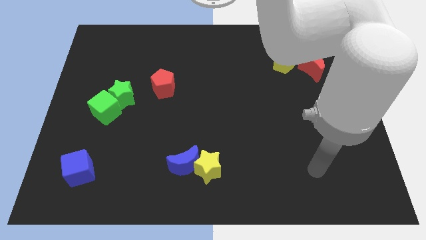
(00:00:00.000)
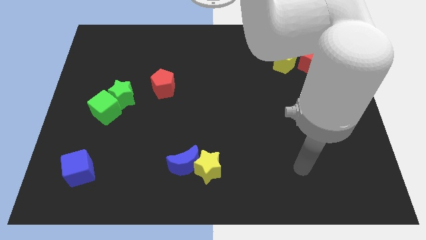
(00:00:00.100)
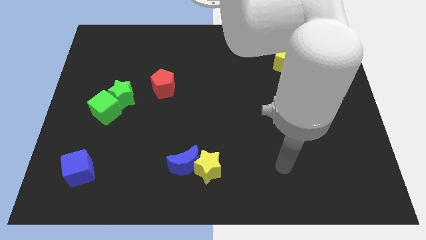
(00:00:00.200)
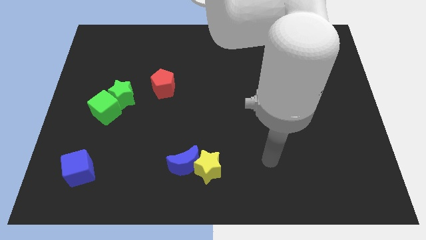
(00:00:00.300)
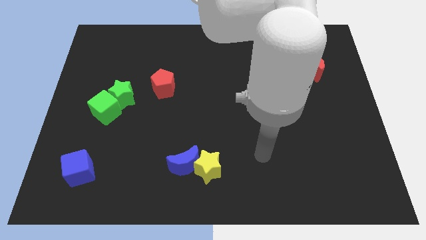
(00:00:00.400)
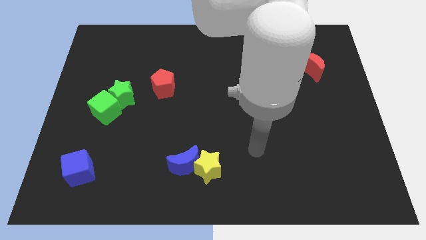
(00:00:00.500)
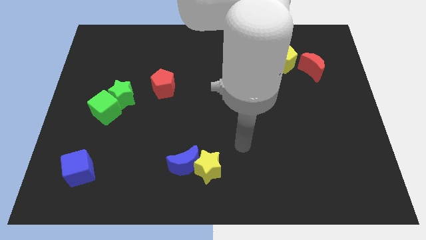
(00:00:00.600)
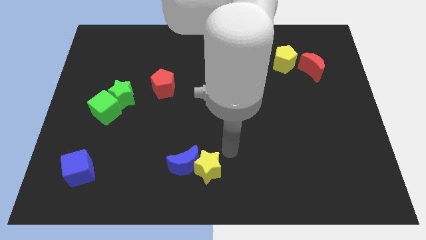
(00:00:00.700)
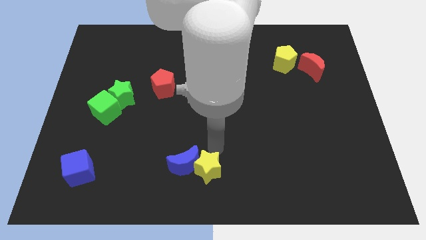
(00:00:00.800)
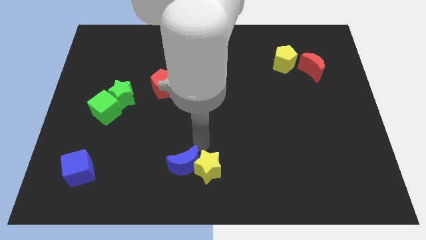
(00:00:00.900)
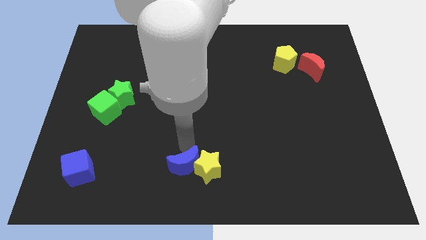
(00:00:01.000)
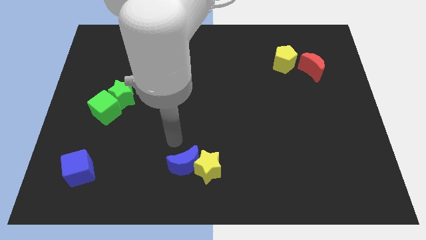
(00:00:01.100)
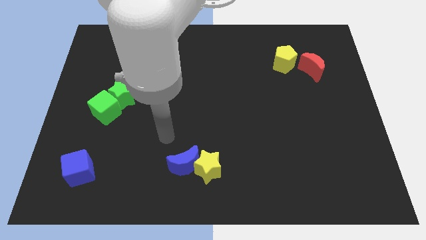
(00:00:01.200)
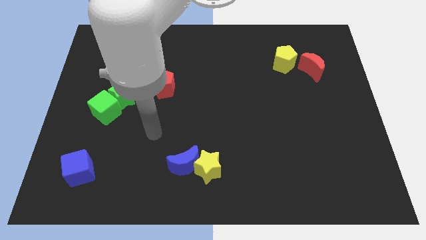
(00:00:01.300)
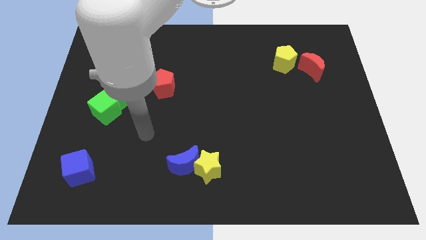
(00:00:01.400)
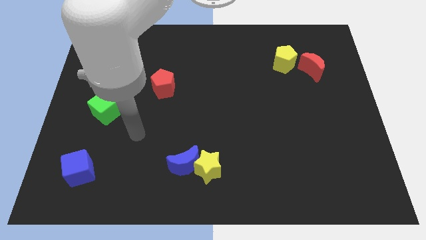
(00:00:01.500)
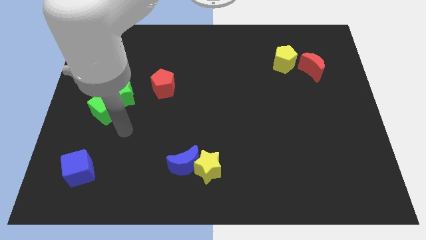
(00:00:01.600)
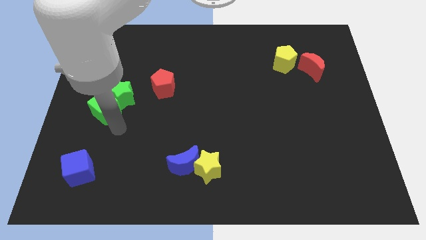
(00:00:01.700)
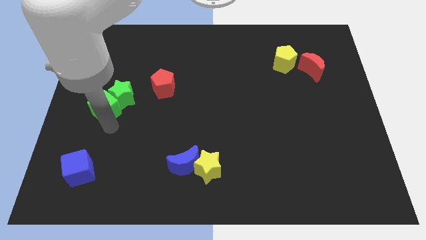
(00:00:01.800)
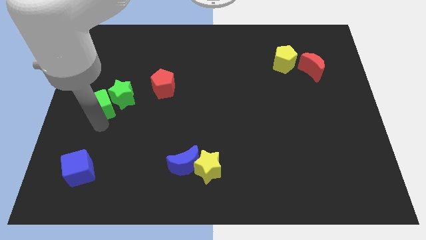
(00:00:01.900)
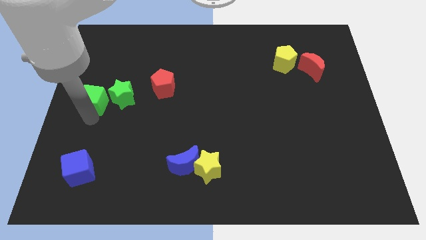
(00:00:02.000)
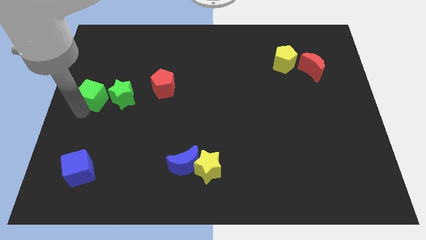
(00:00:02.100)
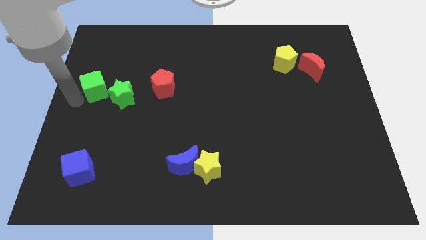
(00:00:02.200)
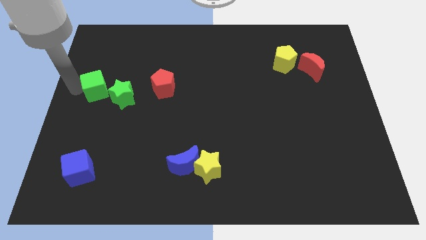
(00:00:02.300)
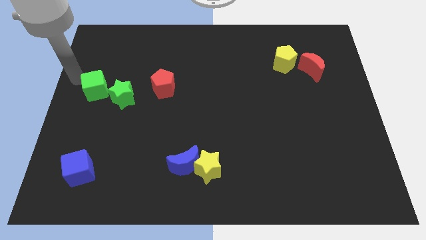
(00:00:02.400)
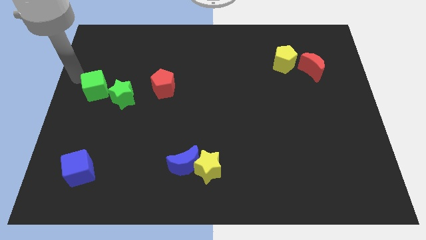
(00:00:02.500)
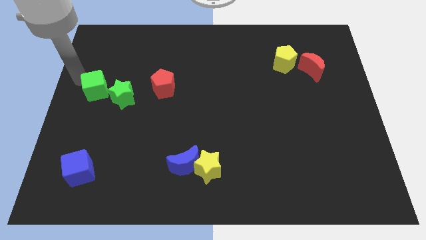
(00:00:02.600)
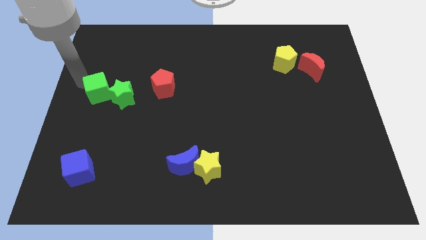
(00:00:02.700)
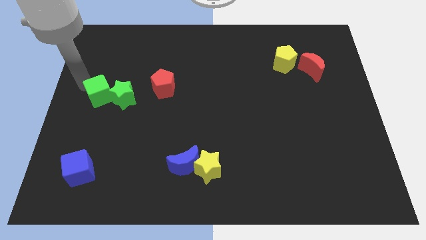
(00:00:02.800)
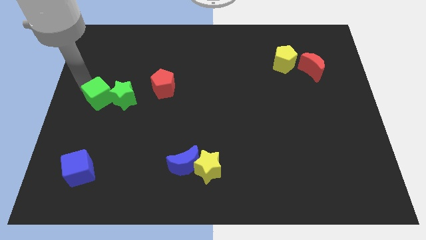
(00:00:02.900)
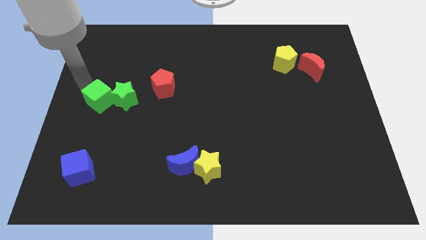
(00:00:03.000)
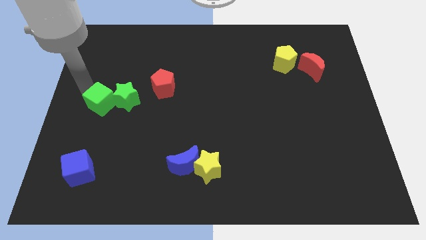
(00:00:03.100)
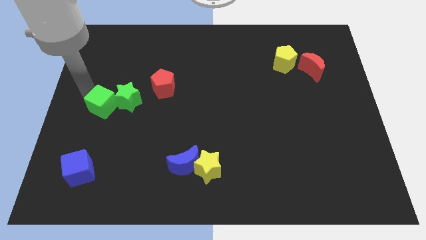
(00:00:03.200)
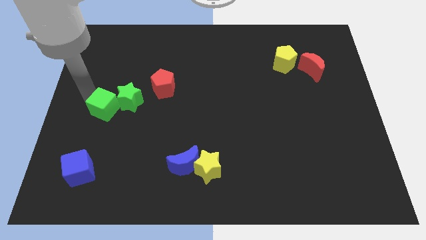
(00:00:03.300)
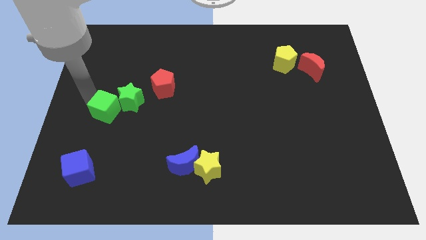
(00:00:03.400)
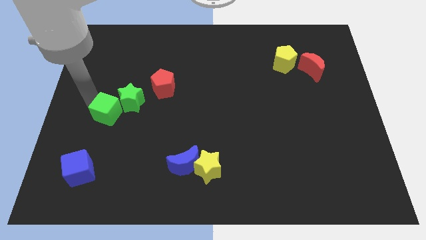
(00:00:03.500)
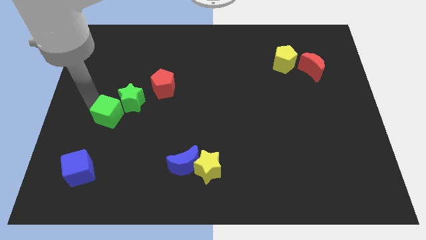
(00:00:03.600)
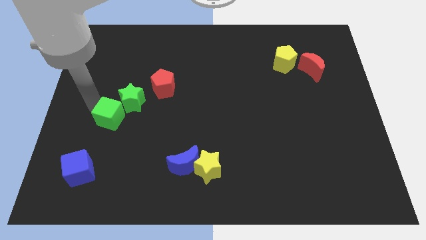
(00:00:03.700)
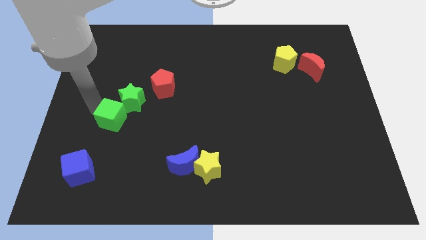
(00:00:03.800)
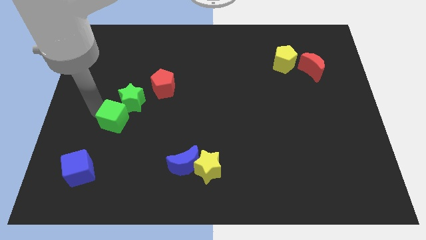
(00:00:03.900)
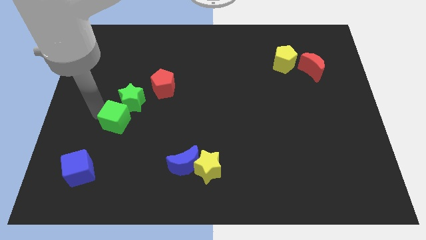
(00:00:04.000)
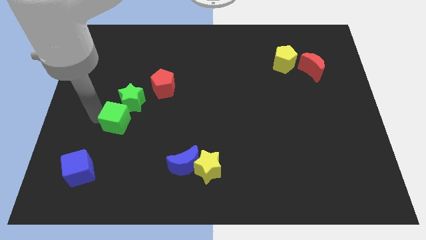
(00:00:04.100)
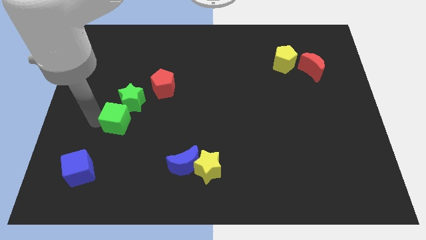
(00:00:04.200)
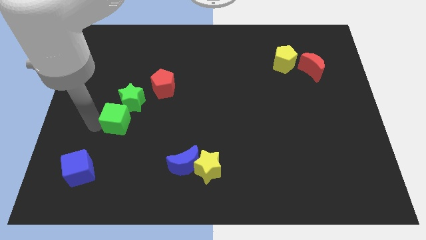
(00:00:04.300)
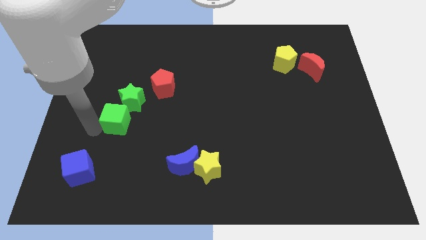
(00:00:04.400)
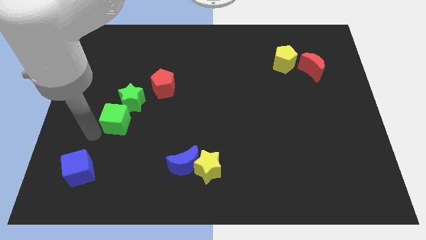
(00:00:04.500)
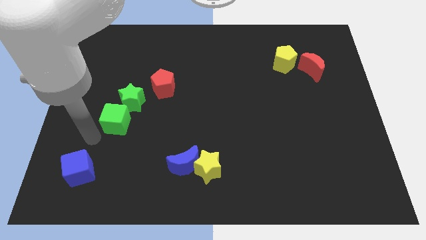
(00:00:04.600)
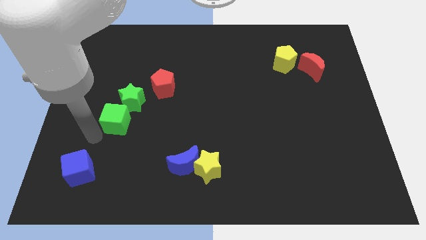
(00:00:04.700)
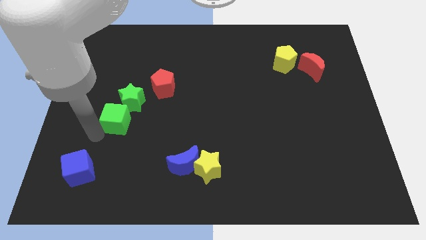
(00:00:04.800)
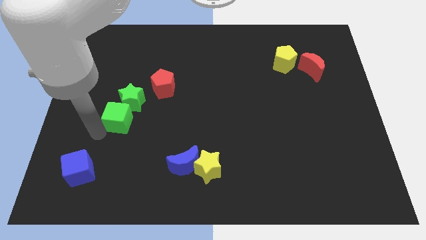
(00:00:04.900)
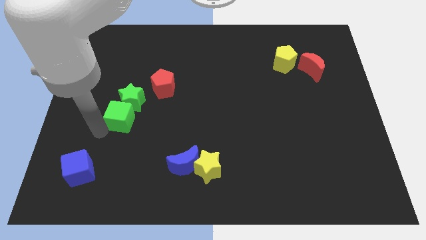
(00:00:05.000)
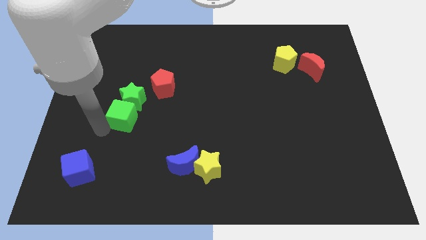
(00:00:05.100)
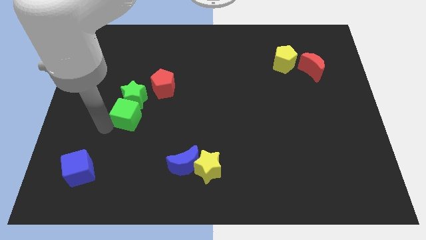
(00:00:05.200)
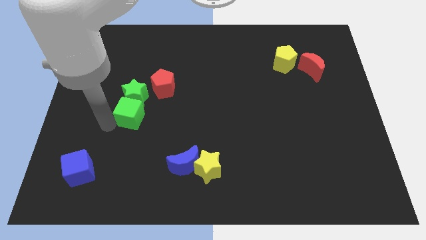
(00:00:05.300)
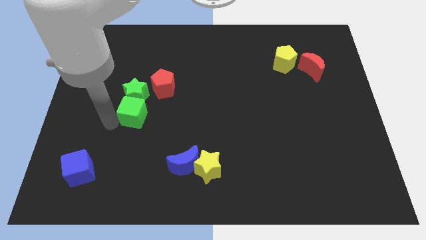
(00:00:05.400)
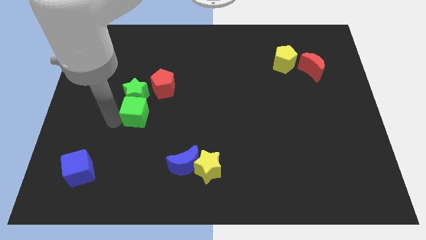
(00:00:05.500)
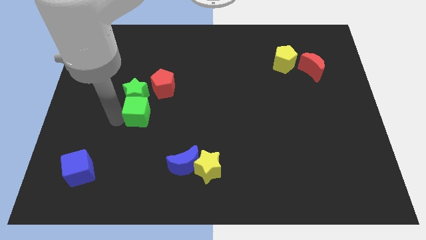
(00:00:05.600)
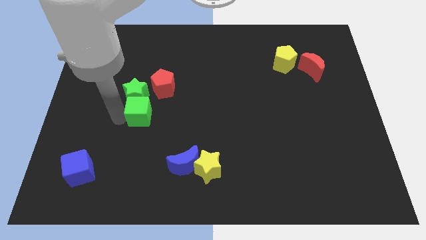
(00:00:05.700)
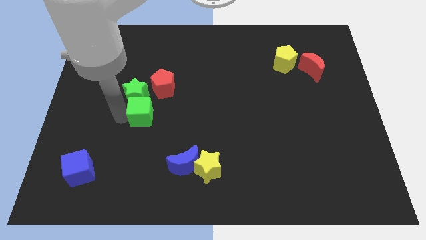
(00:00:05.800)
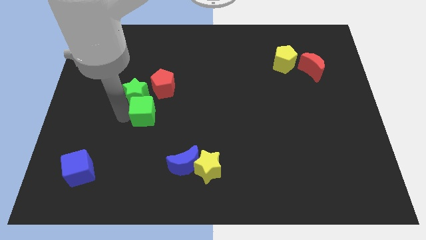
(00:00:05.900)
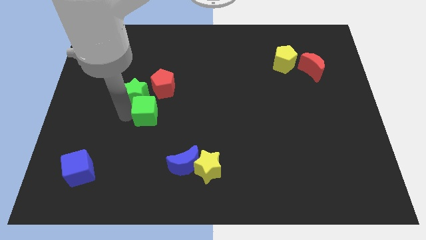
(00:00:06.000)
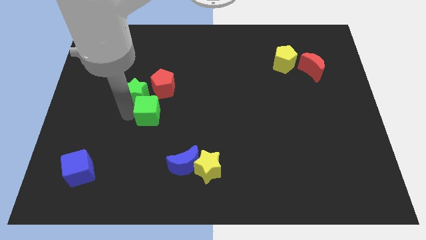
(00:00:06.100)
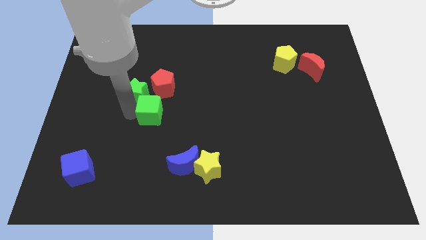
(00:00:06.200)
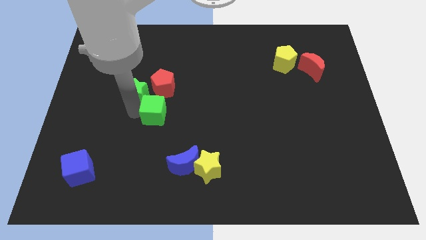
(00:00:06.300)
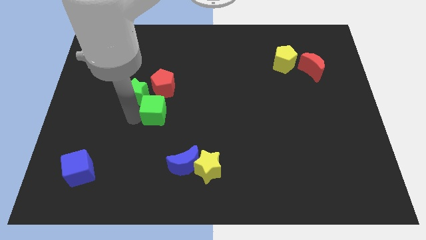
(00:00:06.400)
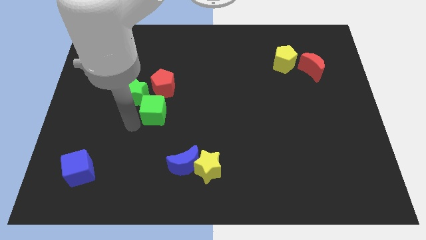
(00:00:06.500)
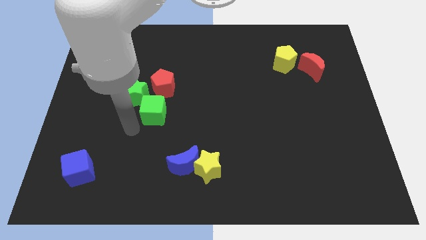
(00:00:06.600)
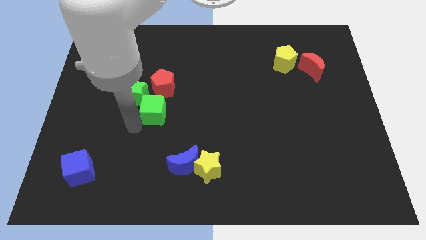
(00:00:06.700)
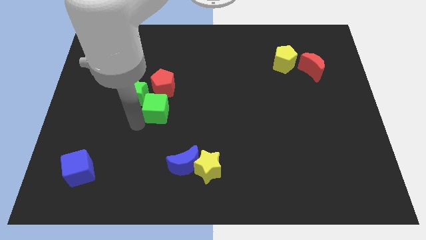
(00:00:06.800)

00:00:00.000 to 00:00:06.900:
slide the green cube to the right side of the green star
